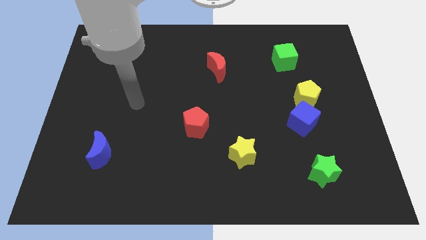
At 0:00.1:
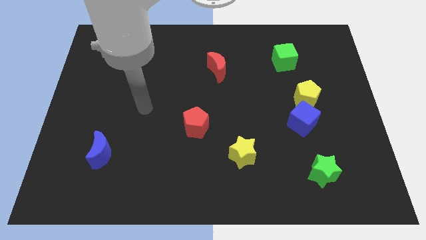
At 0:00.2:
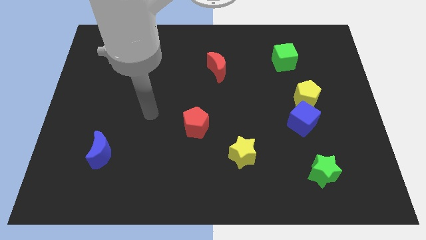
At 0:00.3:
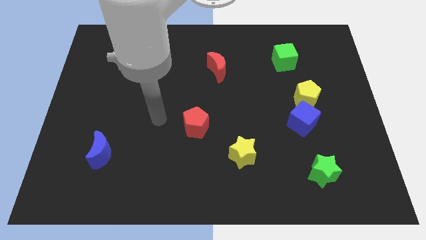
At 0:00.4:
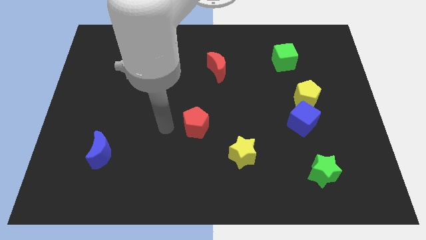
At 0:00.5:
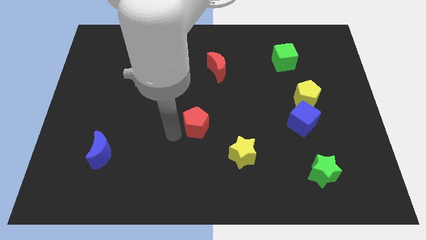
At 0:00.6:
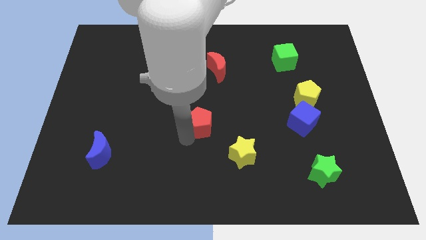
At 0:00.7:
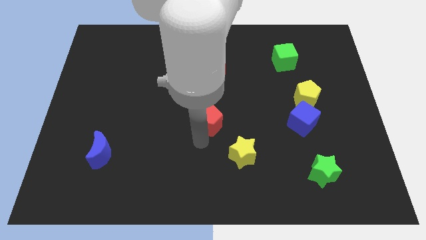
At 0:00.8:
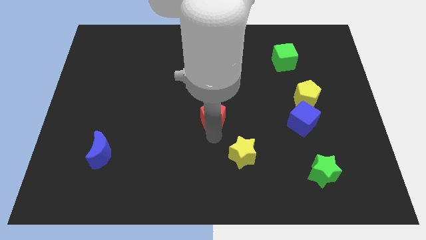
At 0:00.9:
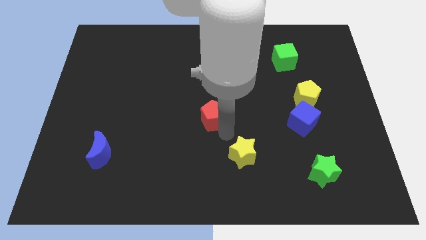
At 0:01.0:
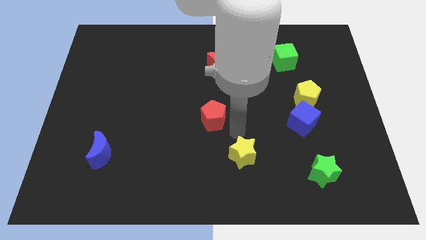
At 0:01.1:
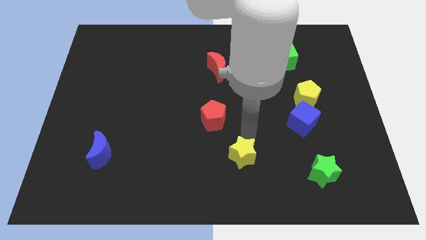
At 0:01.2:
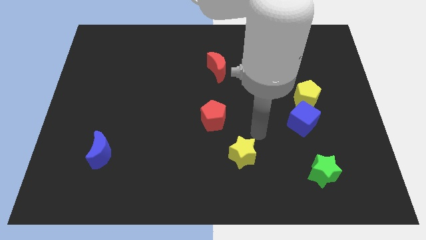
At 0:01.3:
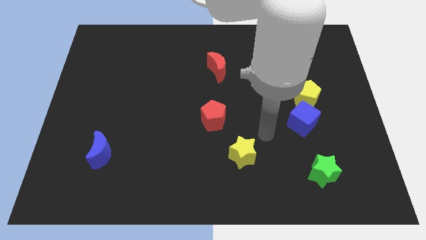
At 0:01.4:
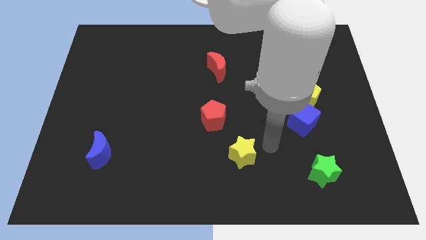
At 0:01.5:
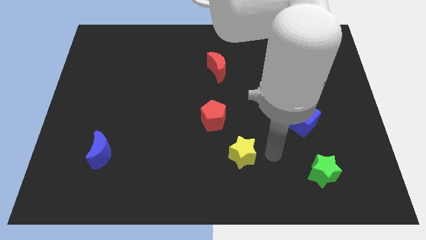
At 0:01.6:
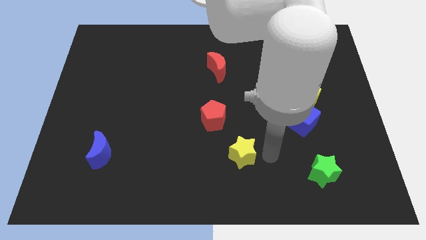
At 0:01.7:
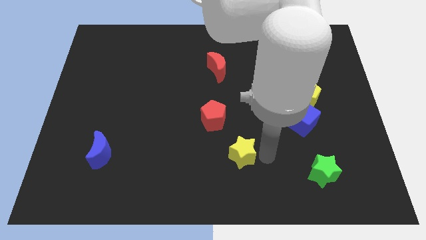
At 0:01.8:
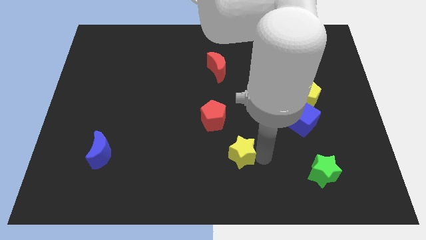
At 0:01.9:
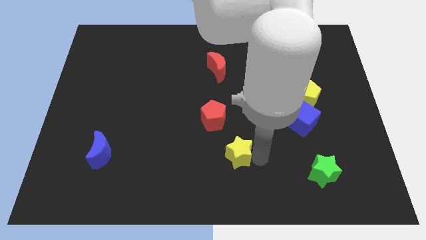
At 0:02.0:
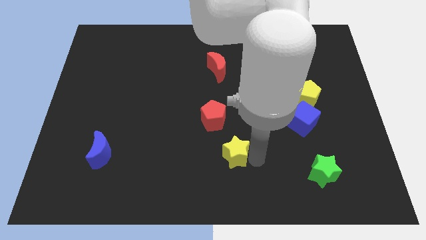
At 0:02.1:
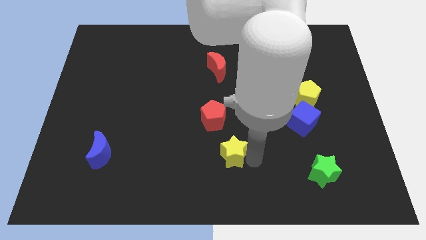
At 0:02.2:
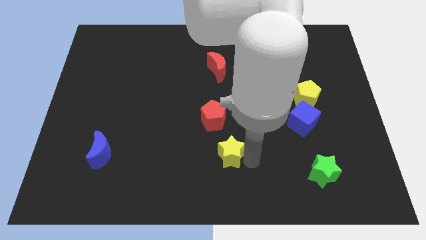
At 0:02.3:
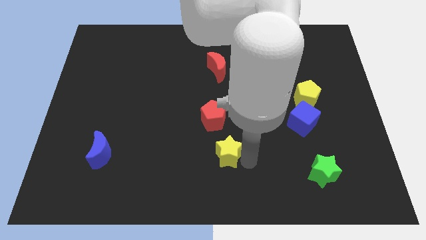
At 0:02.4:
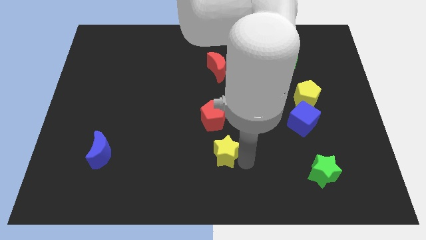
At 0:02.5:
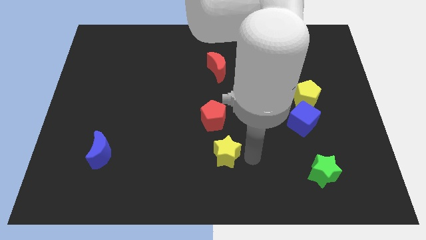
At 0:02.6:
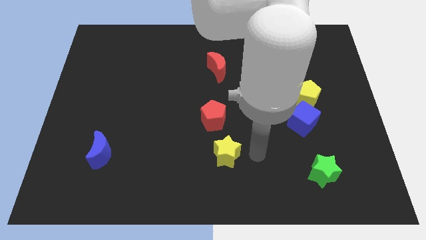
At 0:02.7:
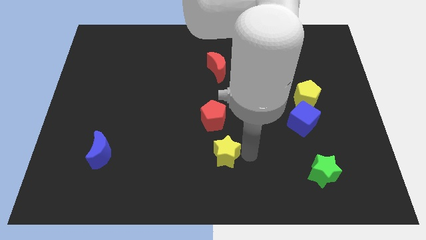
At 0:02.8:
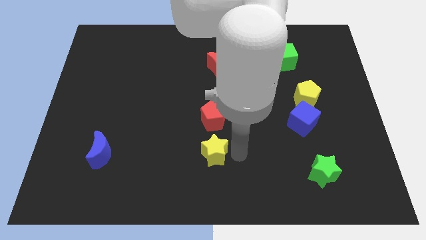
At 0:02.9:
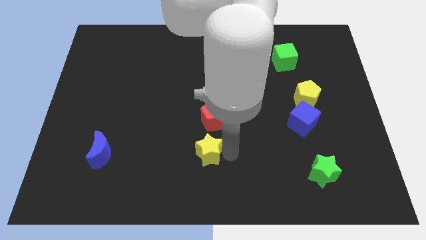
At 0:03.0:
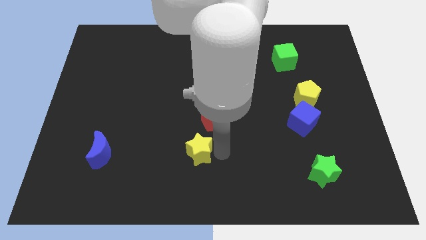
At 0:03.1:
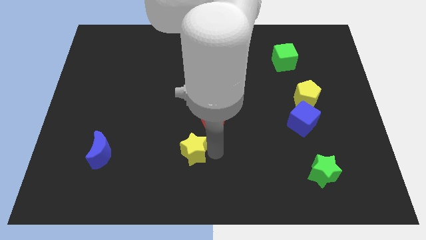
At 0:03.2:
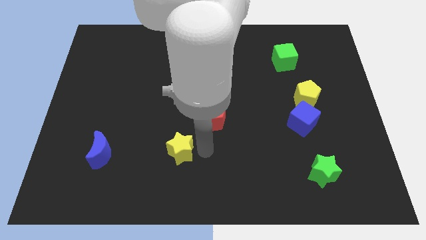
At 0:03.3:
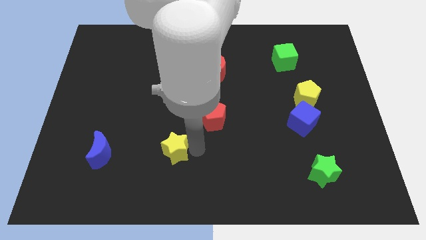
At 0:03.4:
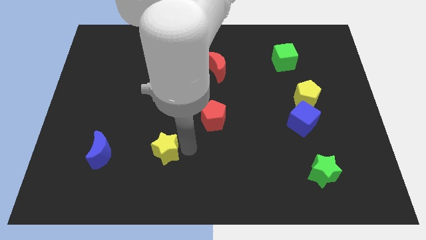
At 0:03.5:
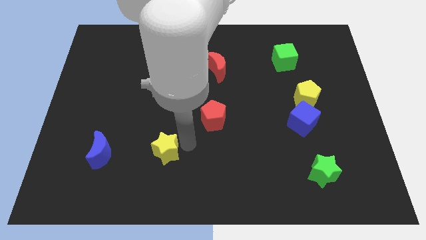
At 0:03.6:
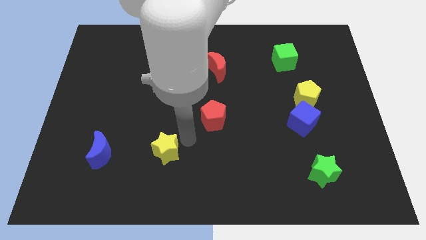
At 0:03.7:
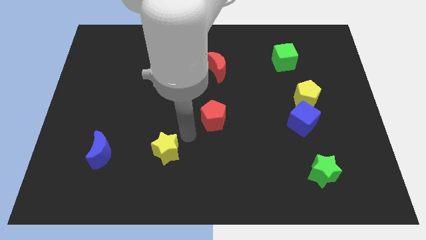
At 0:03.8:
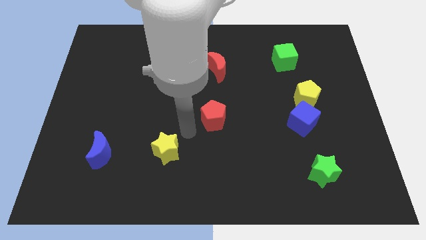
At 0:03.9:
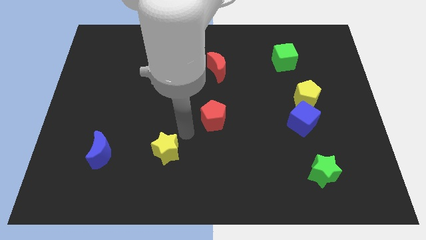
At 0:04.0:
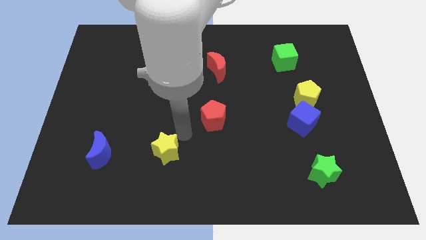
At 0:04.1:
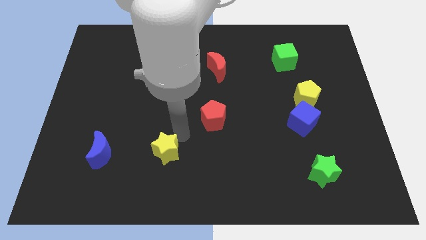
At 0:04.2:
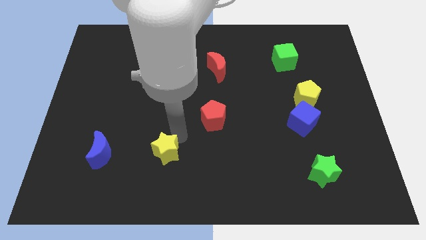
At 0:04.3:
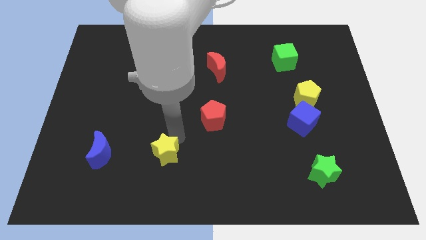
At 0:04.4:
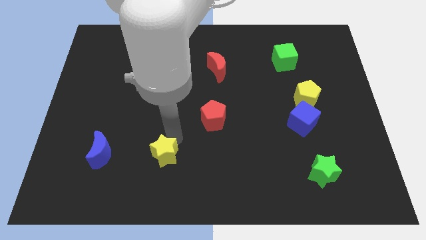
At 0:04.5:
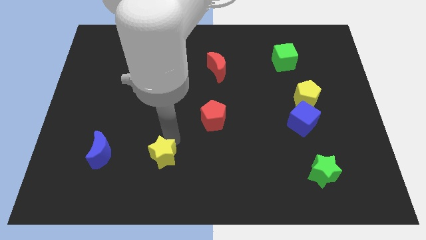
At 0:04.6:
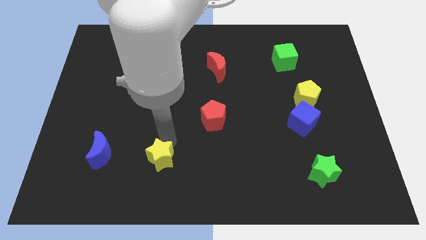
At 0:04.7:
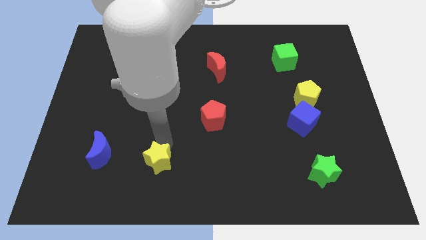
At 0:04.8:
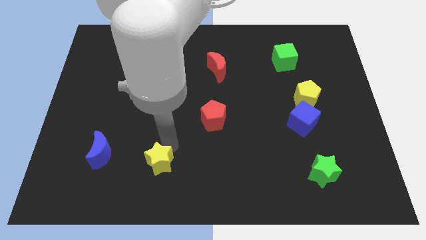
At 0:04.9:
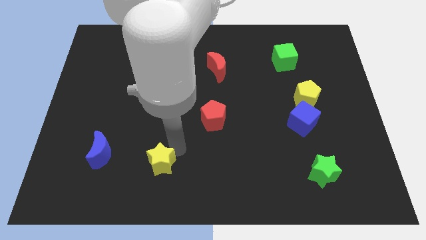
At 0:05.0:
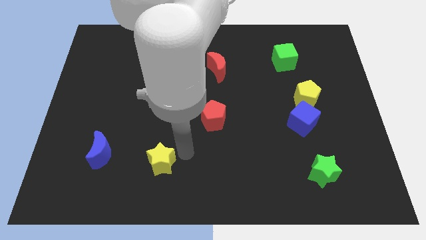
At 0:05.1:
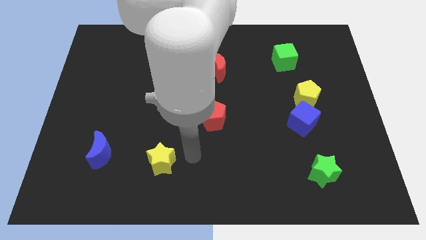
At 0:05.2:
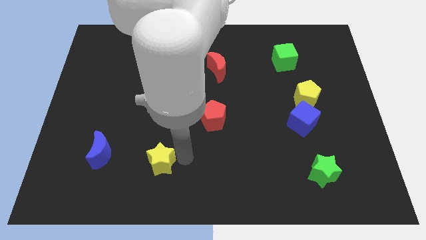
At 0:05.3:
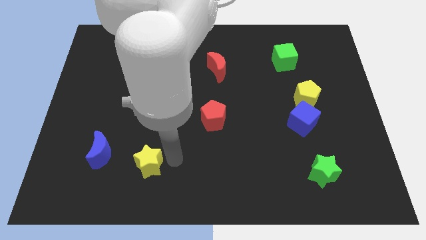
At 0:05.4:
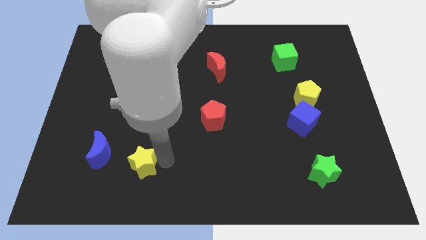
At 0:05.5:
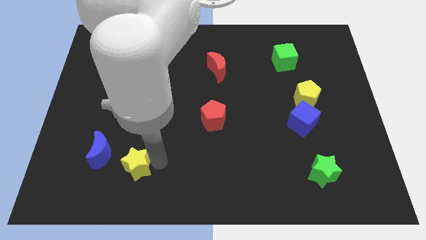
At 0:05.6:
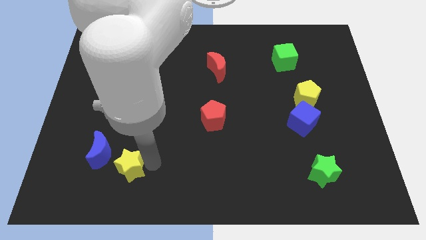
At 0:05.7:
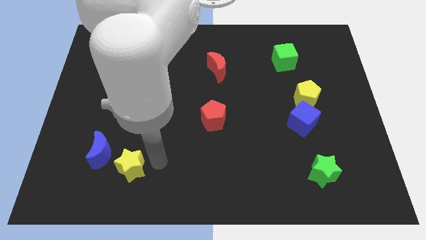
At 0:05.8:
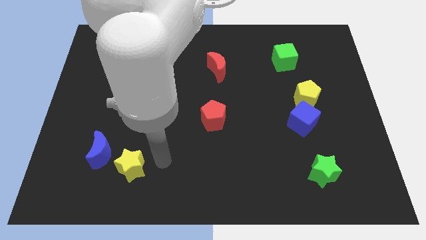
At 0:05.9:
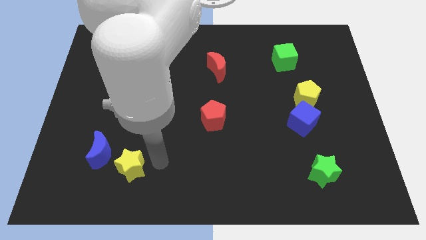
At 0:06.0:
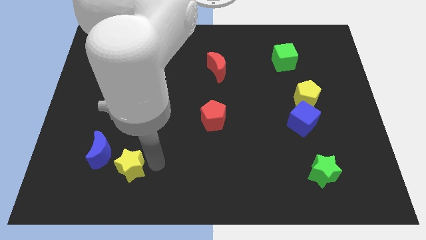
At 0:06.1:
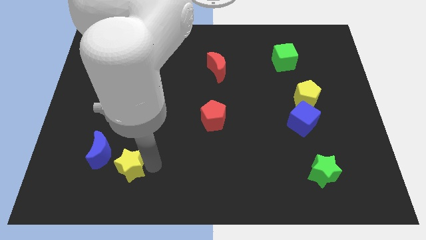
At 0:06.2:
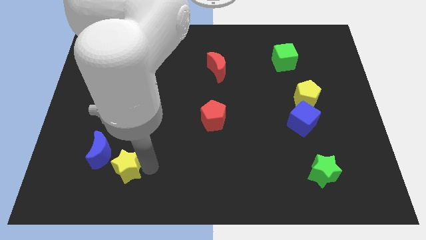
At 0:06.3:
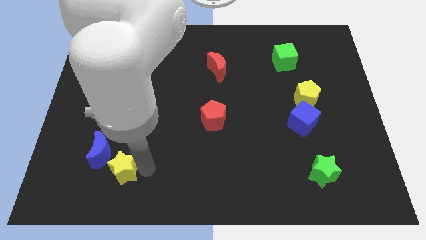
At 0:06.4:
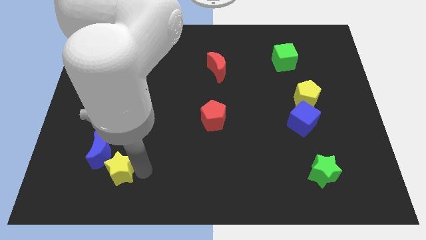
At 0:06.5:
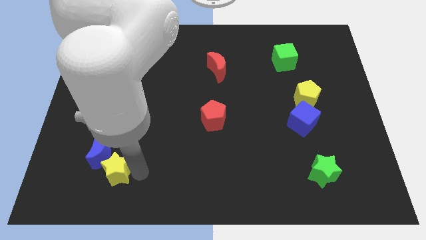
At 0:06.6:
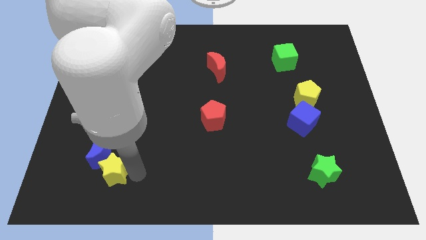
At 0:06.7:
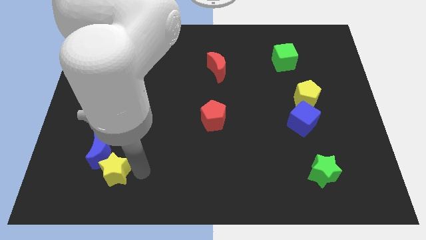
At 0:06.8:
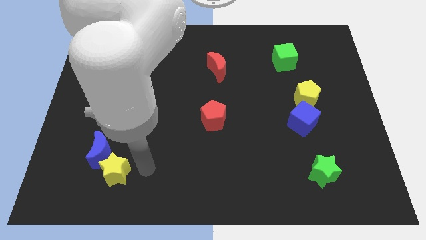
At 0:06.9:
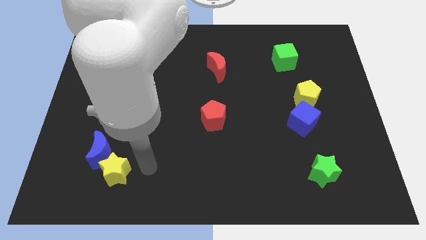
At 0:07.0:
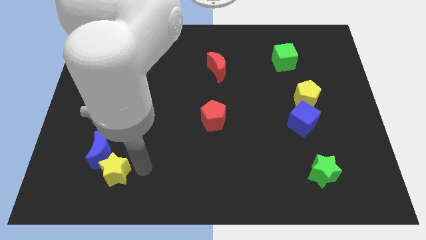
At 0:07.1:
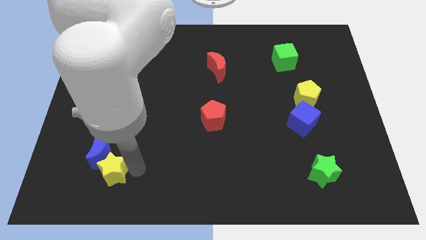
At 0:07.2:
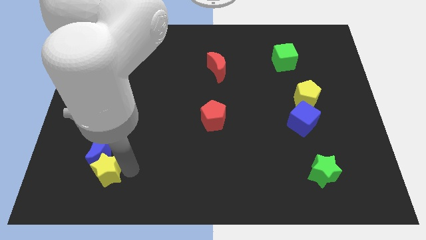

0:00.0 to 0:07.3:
put the yellow star diagonally down and to the left of the blue moon

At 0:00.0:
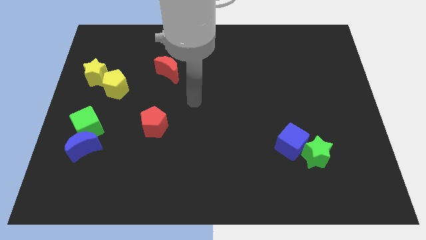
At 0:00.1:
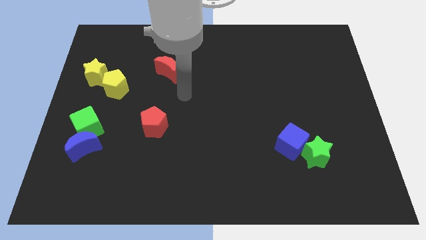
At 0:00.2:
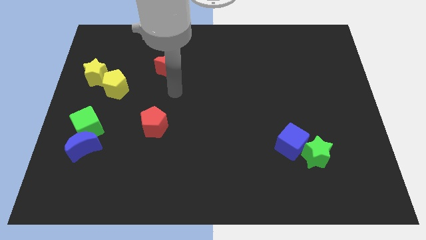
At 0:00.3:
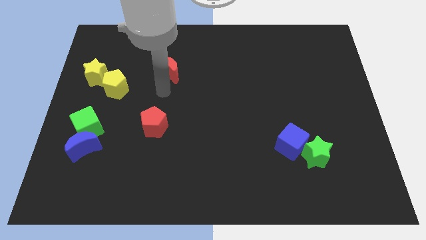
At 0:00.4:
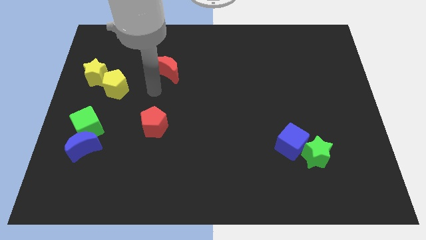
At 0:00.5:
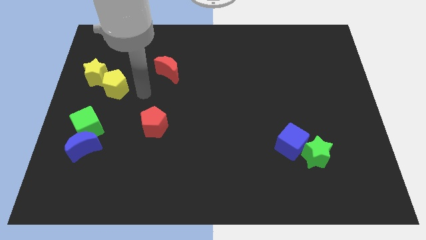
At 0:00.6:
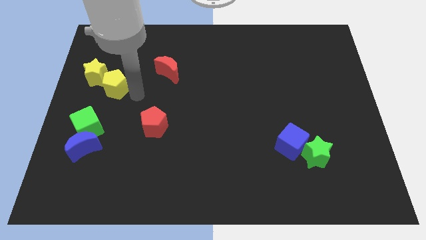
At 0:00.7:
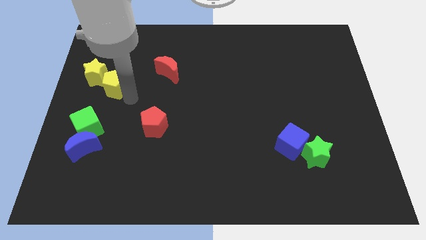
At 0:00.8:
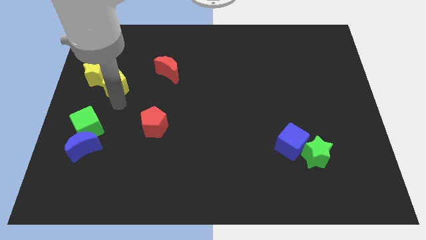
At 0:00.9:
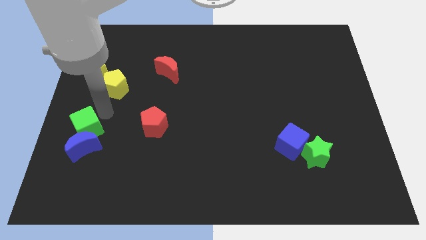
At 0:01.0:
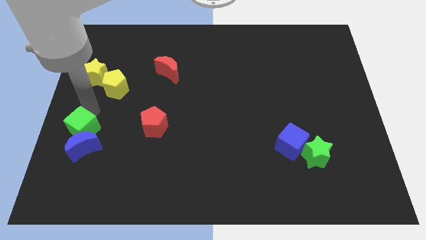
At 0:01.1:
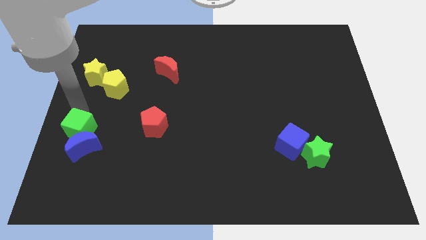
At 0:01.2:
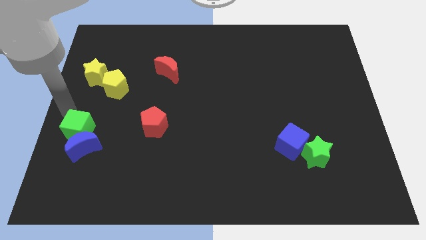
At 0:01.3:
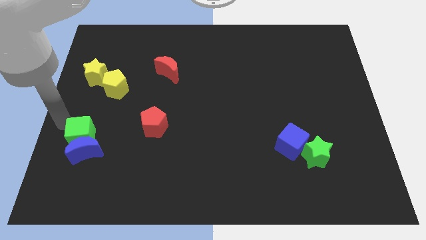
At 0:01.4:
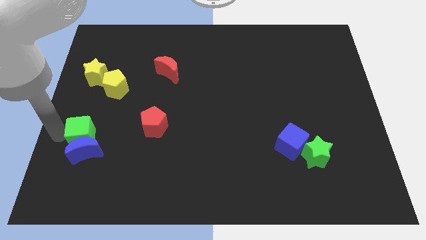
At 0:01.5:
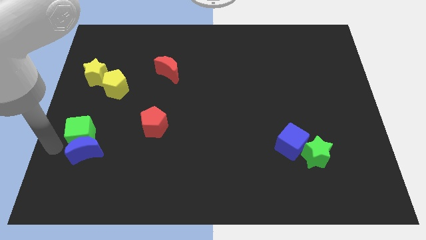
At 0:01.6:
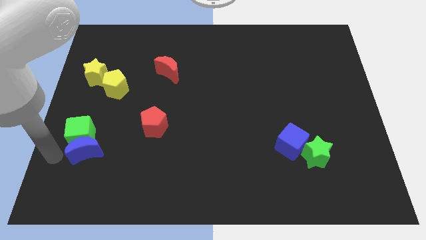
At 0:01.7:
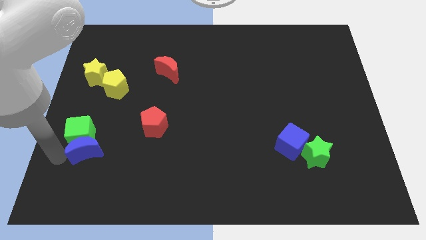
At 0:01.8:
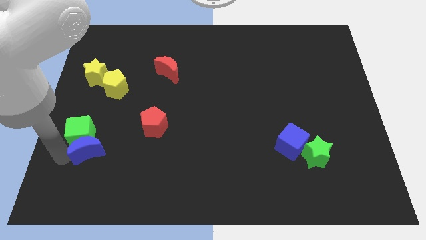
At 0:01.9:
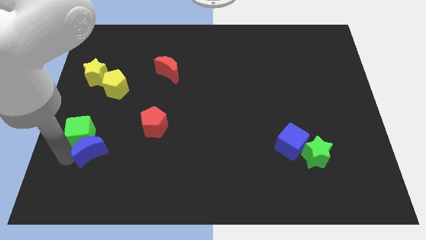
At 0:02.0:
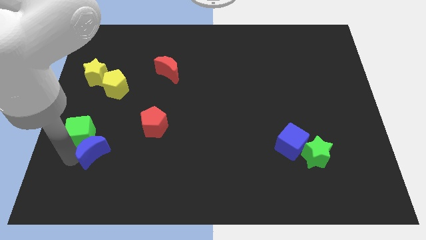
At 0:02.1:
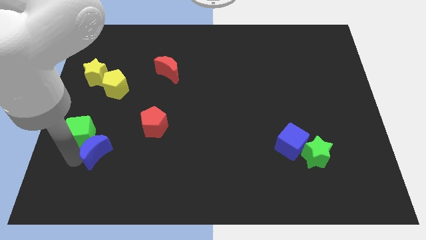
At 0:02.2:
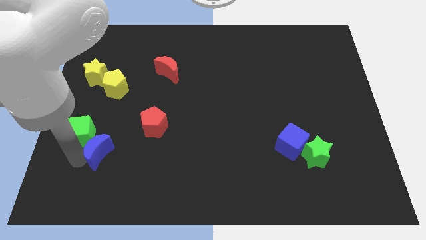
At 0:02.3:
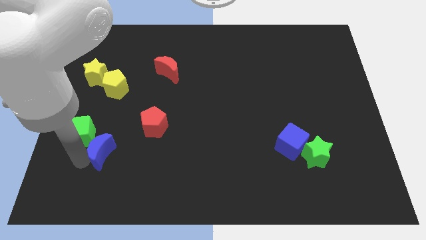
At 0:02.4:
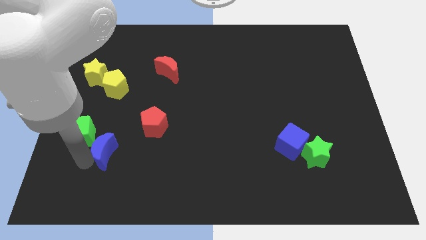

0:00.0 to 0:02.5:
slide the blue moon diagonally down and to the left of the red pentagon
